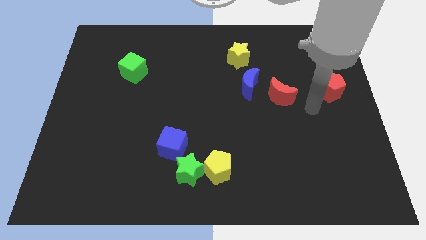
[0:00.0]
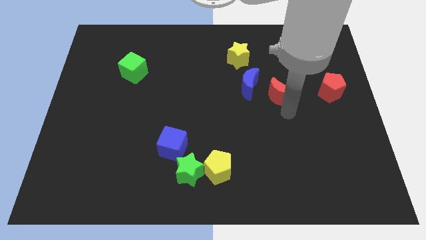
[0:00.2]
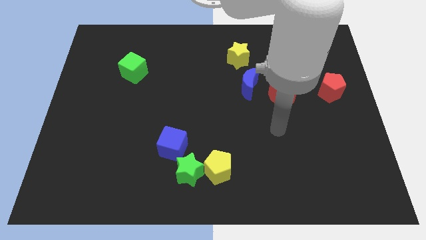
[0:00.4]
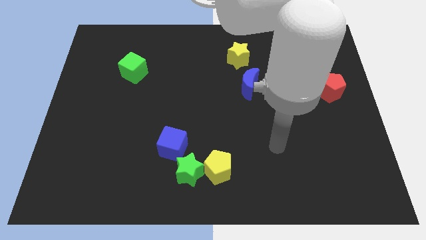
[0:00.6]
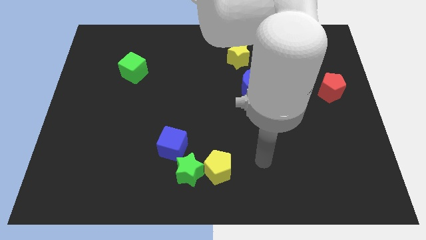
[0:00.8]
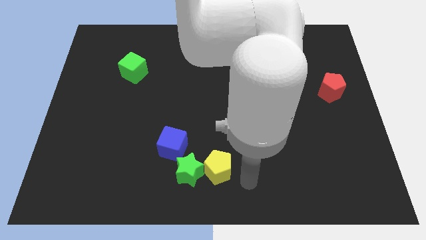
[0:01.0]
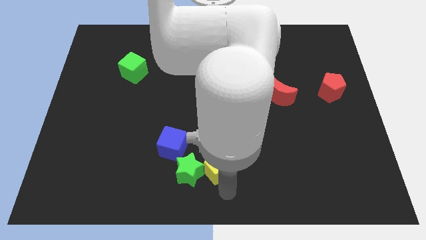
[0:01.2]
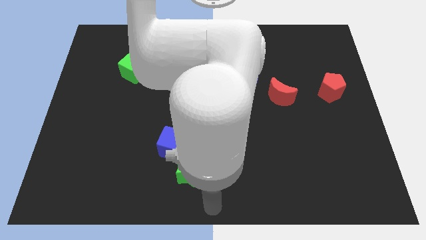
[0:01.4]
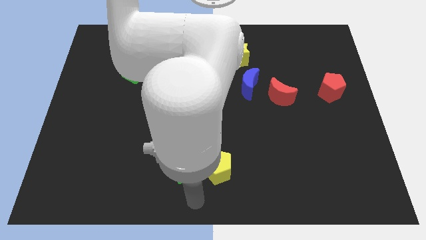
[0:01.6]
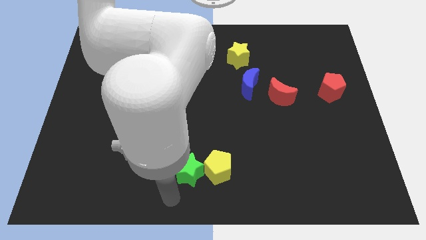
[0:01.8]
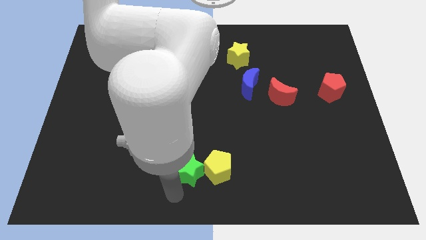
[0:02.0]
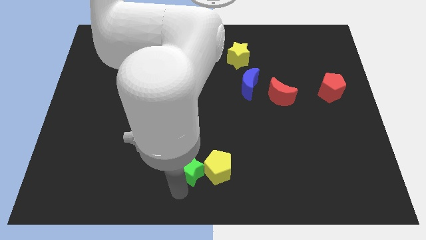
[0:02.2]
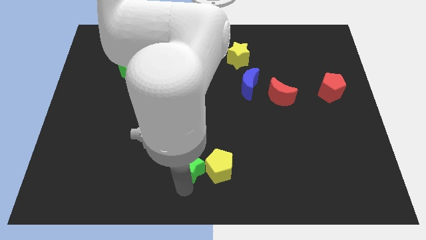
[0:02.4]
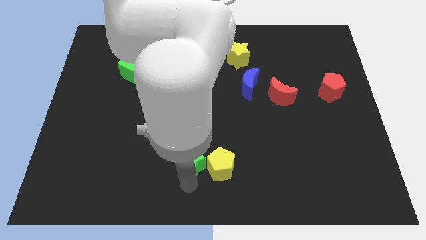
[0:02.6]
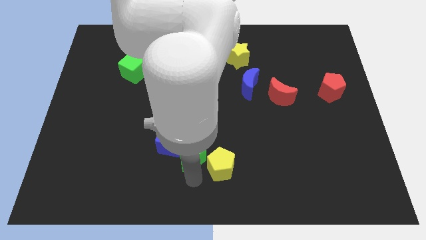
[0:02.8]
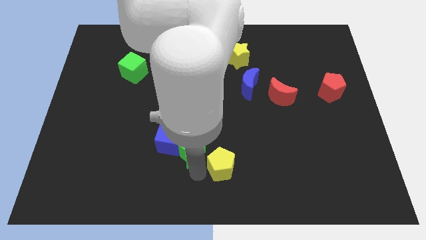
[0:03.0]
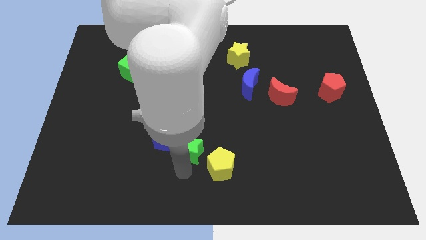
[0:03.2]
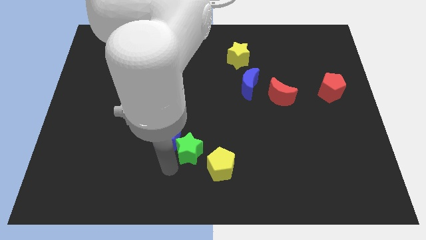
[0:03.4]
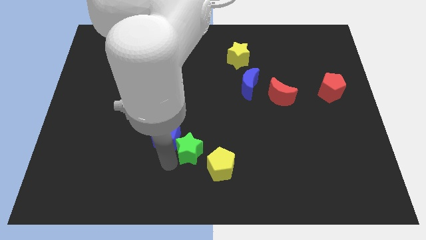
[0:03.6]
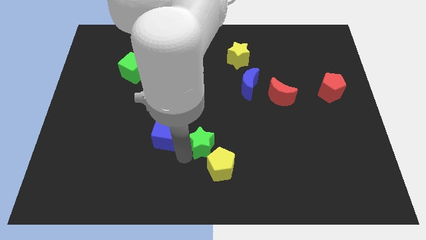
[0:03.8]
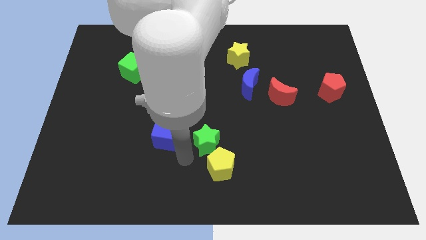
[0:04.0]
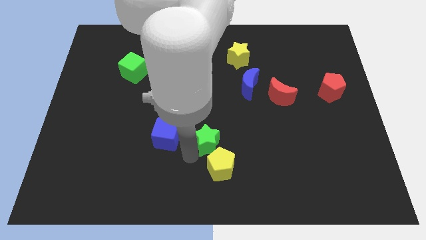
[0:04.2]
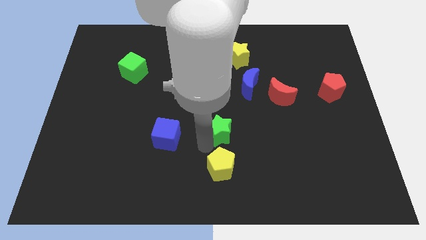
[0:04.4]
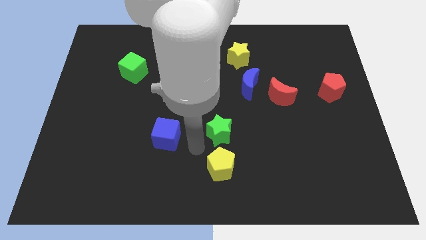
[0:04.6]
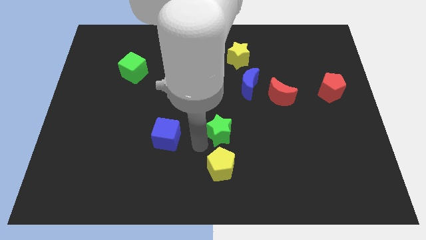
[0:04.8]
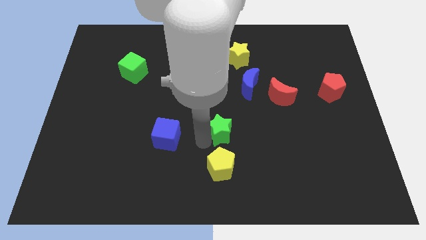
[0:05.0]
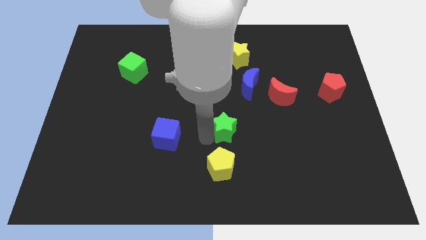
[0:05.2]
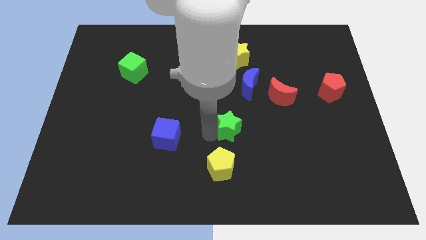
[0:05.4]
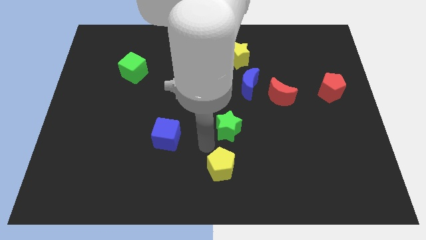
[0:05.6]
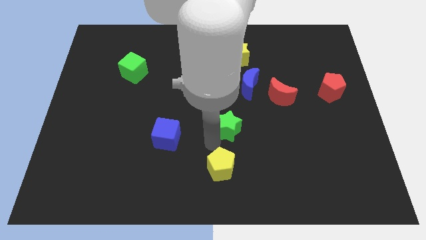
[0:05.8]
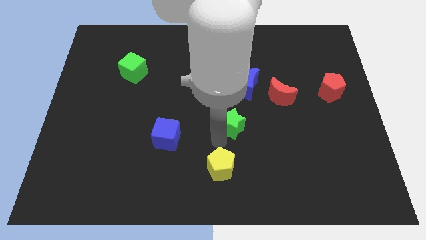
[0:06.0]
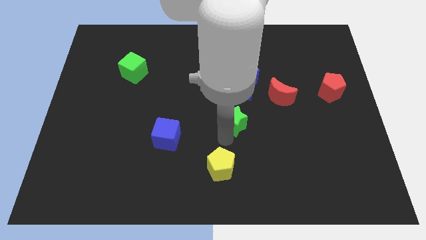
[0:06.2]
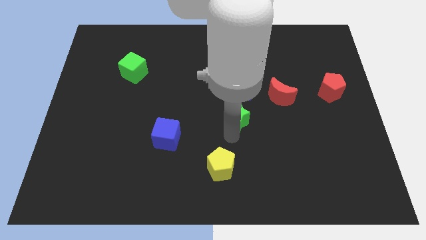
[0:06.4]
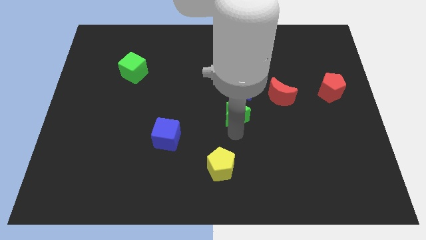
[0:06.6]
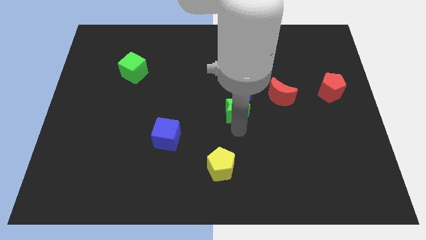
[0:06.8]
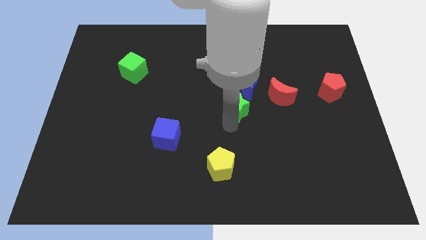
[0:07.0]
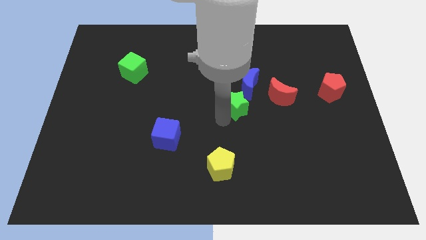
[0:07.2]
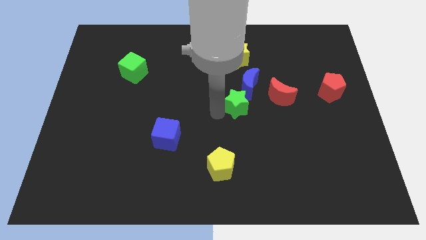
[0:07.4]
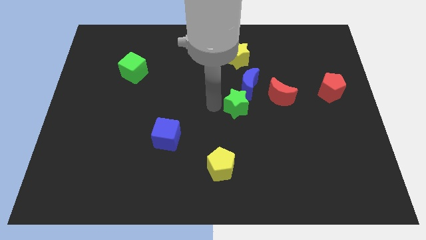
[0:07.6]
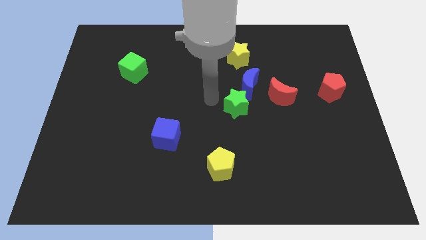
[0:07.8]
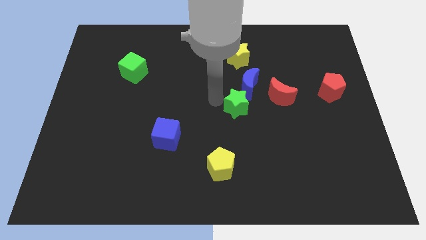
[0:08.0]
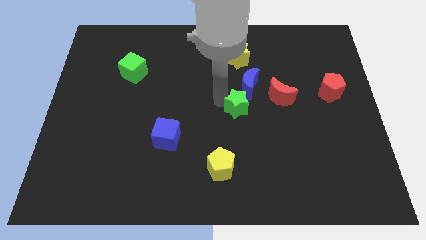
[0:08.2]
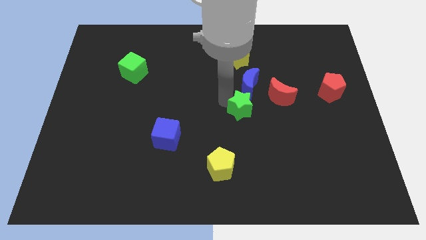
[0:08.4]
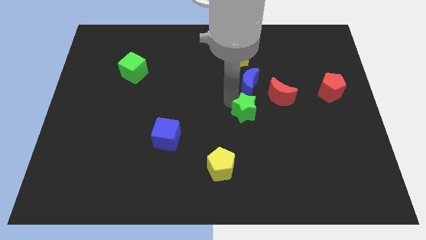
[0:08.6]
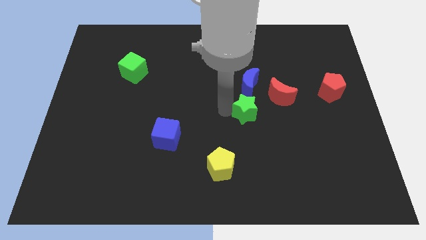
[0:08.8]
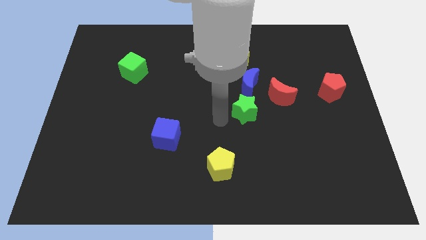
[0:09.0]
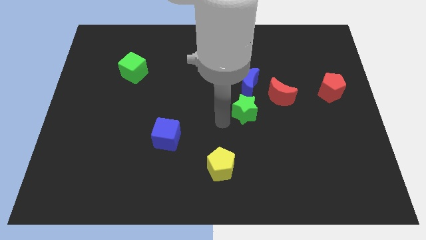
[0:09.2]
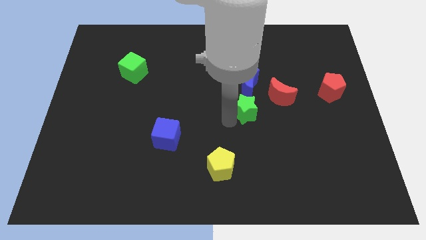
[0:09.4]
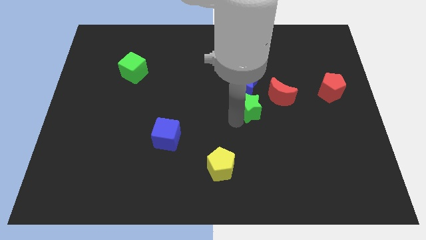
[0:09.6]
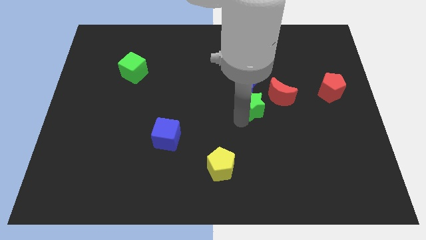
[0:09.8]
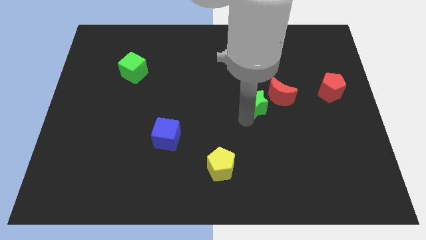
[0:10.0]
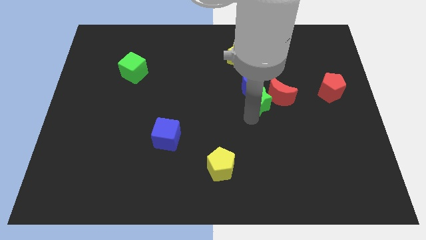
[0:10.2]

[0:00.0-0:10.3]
put the green star close to the red moon

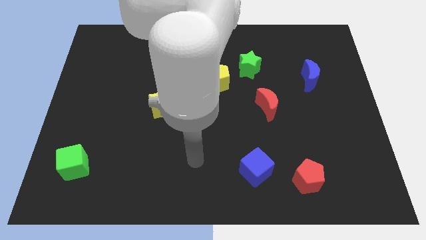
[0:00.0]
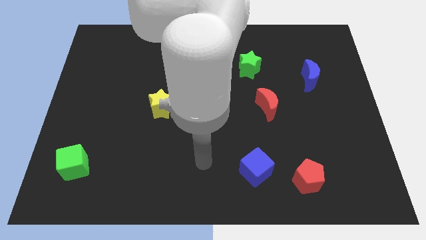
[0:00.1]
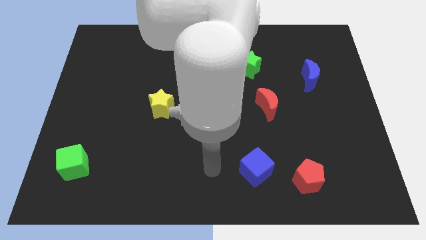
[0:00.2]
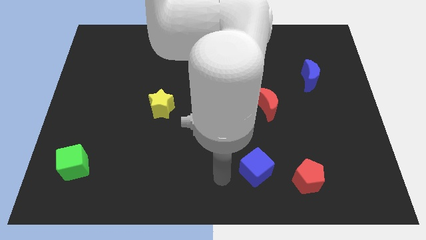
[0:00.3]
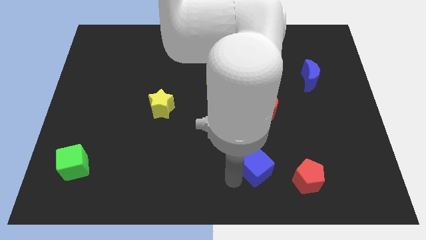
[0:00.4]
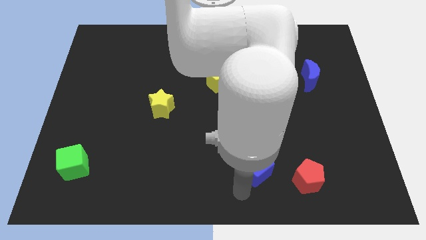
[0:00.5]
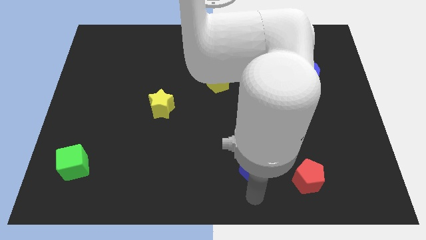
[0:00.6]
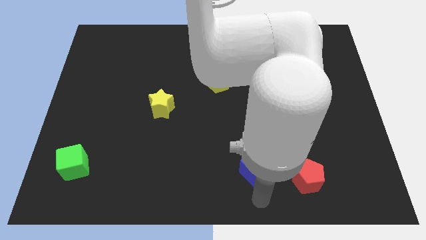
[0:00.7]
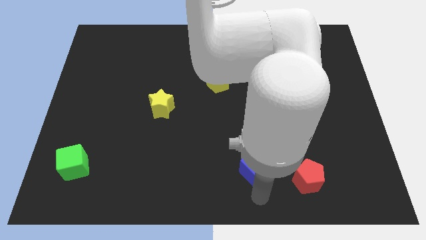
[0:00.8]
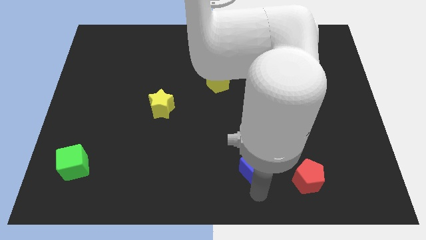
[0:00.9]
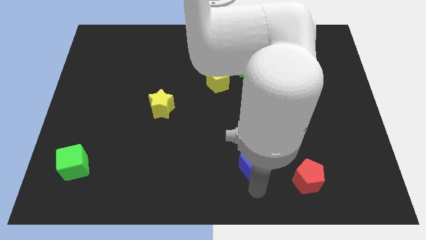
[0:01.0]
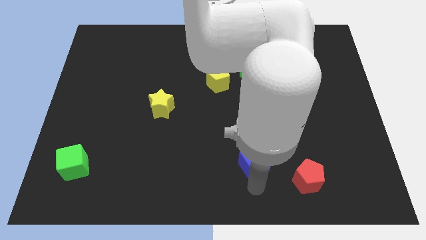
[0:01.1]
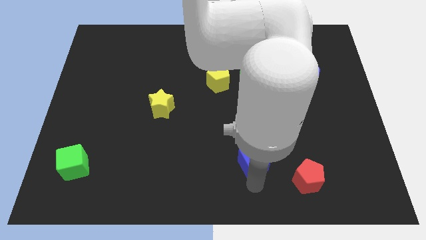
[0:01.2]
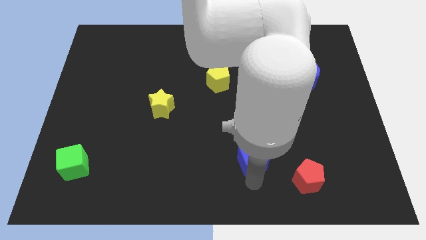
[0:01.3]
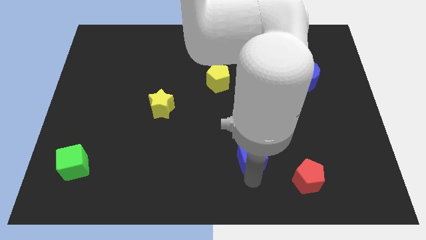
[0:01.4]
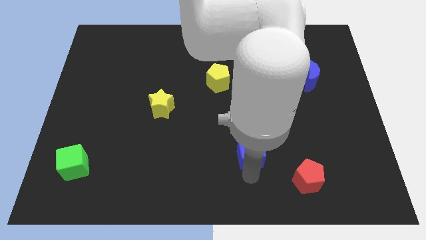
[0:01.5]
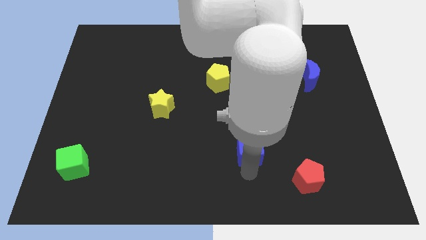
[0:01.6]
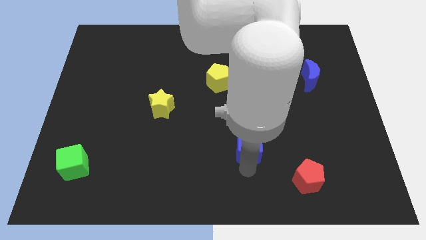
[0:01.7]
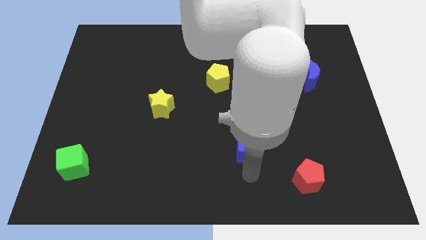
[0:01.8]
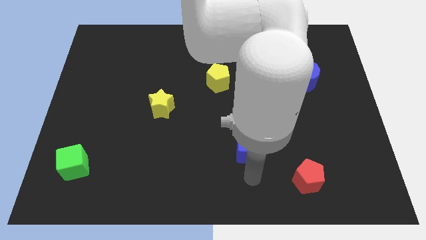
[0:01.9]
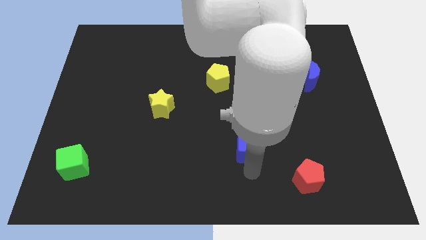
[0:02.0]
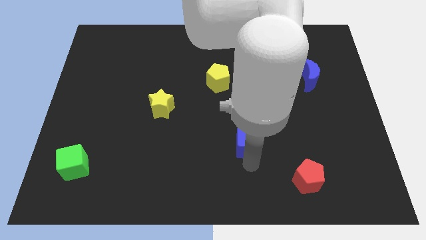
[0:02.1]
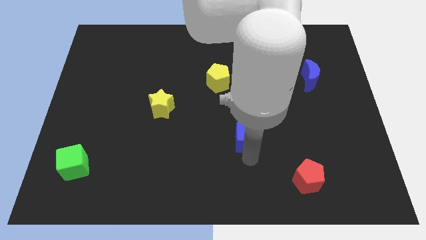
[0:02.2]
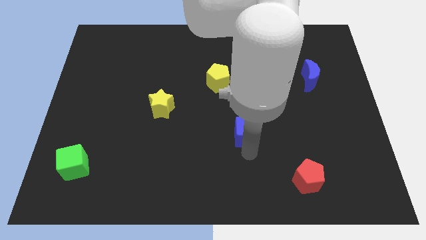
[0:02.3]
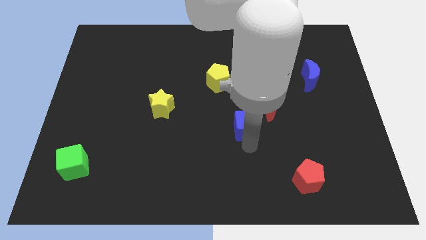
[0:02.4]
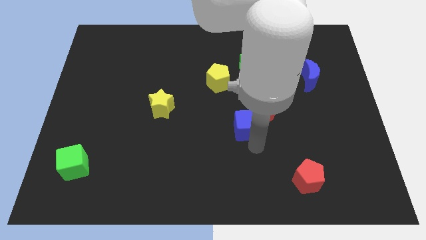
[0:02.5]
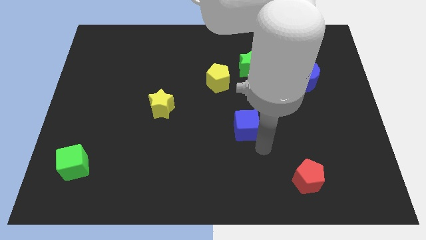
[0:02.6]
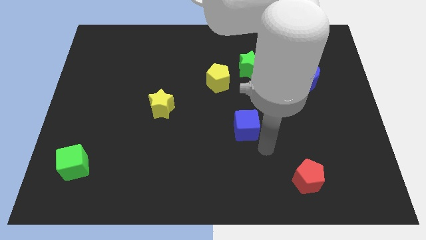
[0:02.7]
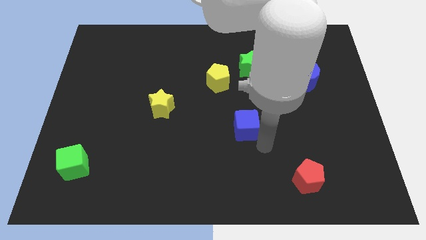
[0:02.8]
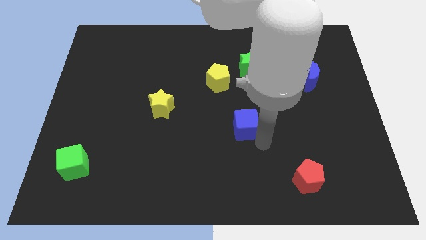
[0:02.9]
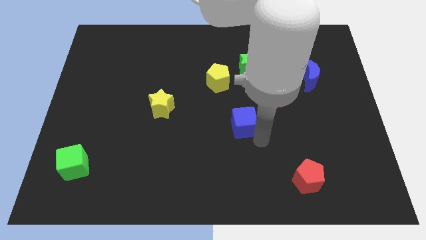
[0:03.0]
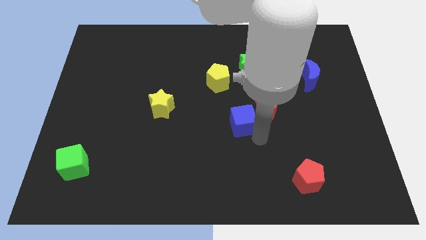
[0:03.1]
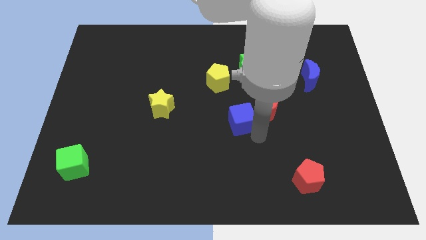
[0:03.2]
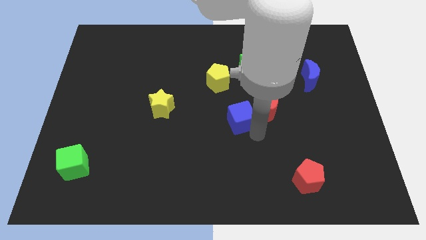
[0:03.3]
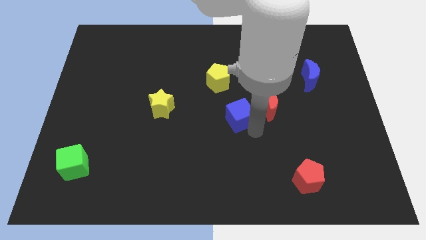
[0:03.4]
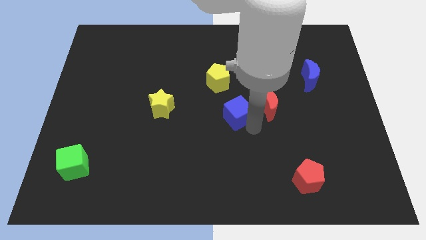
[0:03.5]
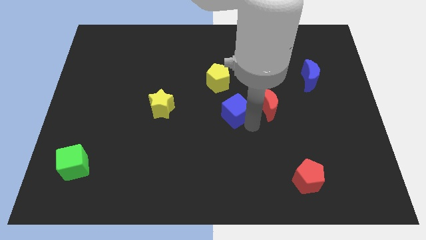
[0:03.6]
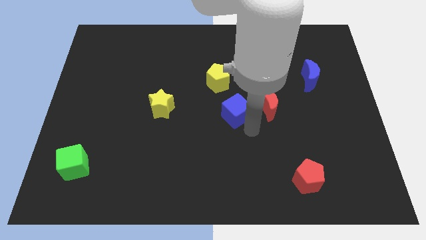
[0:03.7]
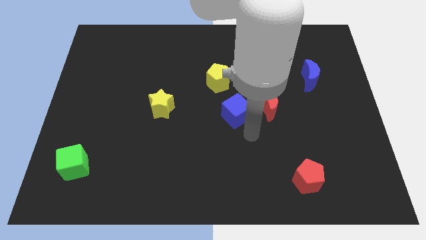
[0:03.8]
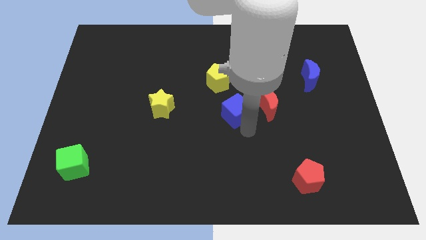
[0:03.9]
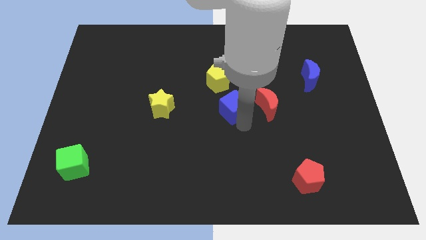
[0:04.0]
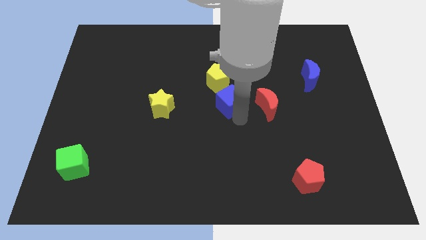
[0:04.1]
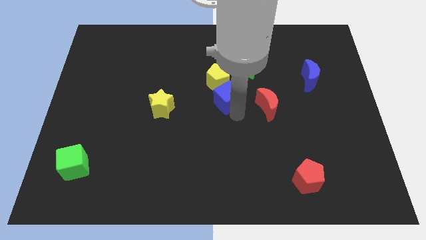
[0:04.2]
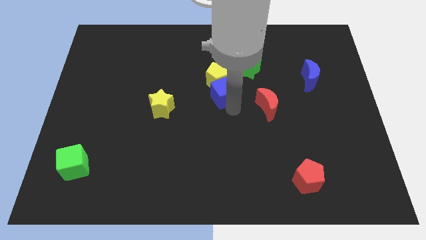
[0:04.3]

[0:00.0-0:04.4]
push the blue cube close to the yellow pentagon
